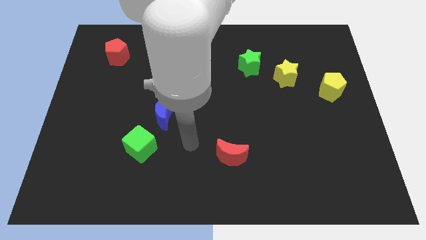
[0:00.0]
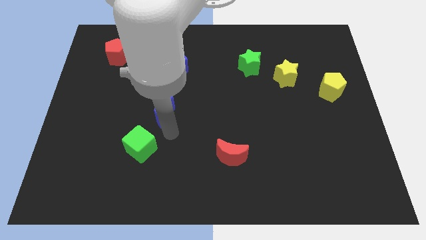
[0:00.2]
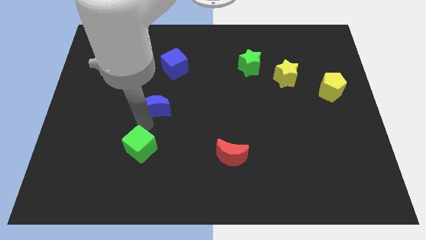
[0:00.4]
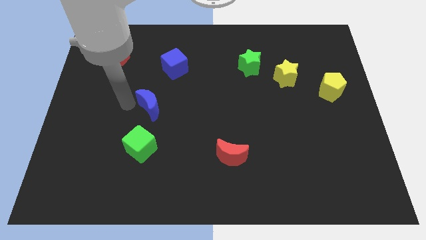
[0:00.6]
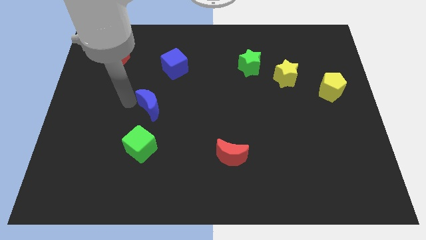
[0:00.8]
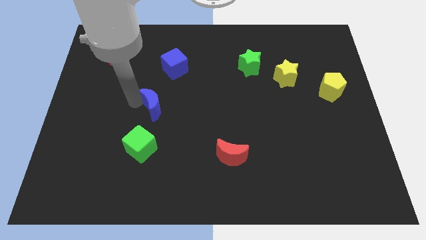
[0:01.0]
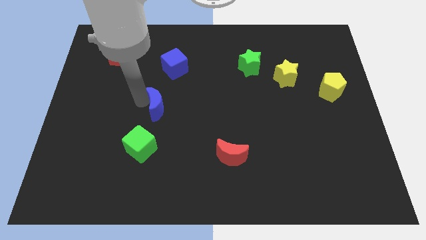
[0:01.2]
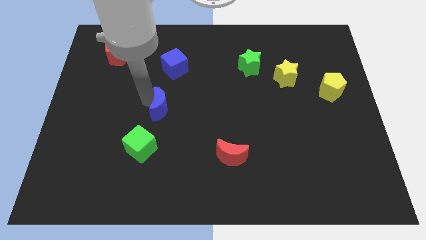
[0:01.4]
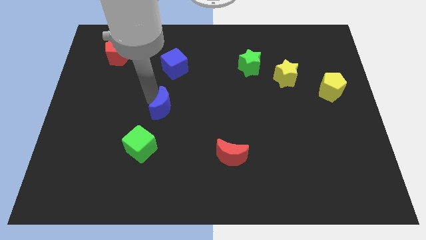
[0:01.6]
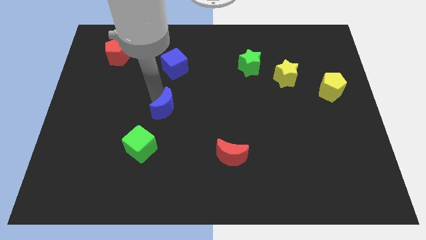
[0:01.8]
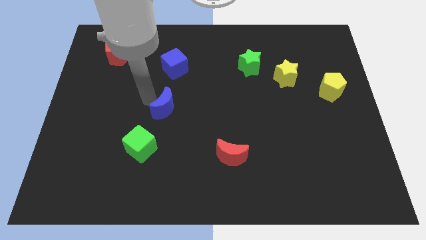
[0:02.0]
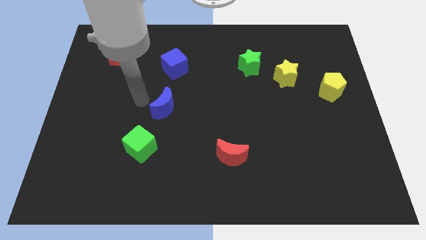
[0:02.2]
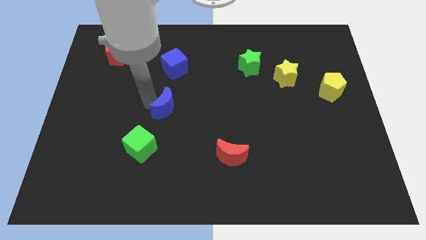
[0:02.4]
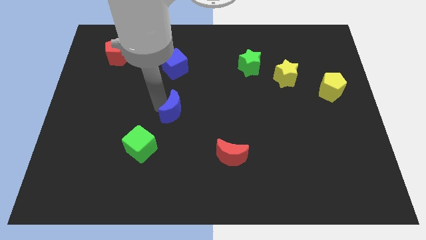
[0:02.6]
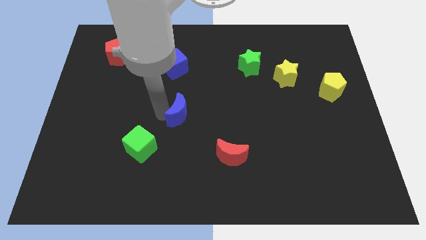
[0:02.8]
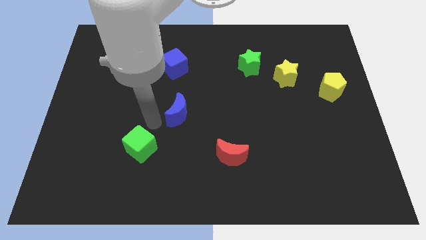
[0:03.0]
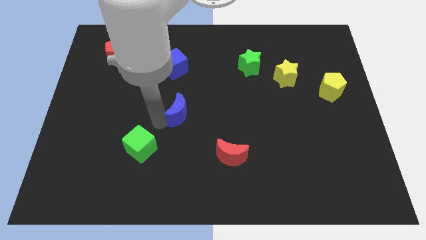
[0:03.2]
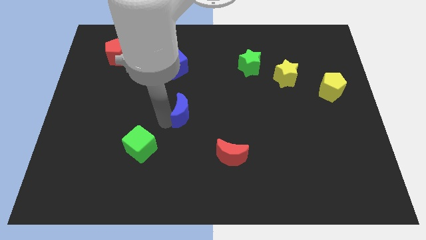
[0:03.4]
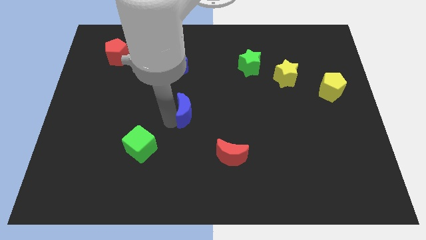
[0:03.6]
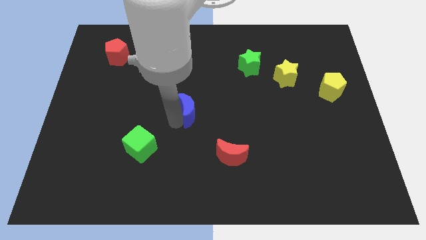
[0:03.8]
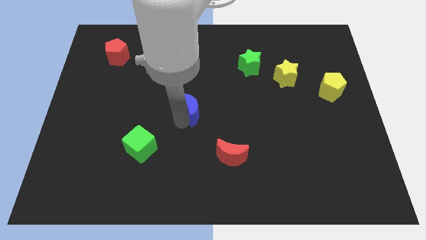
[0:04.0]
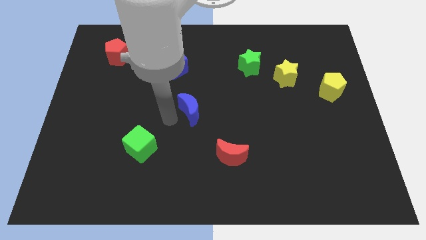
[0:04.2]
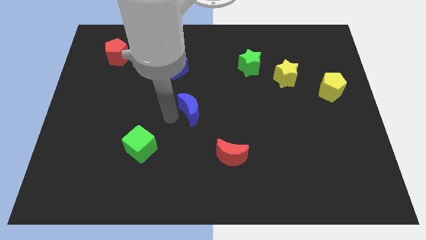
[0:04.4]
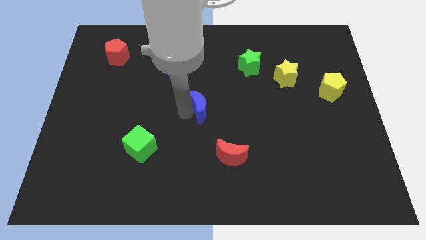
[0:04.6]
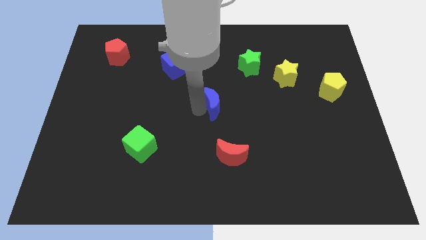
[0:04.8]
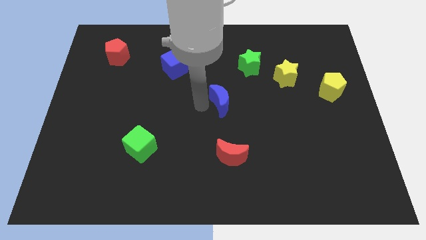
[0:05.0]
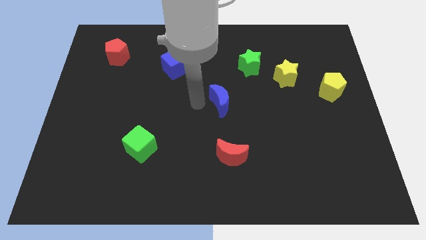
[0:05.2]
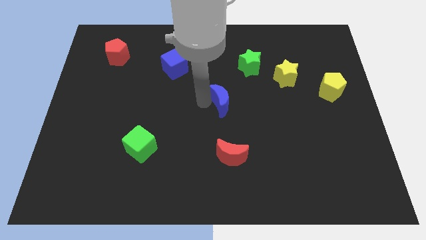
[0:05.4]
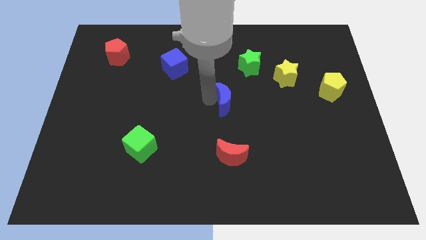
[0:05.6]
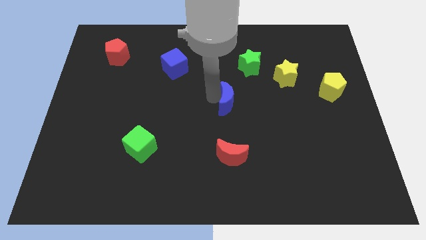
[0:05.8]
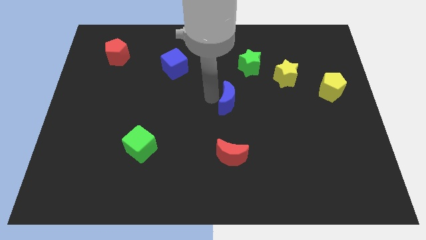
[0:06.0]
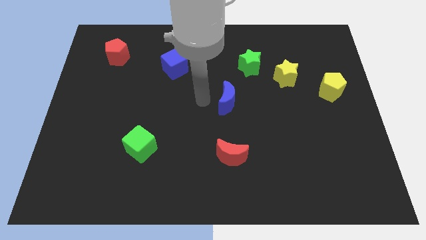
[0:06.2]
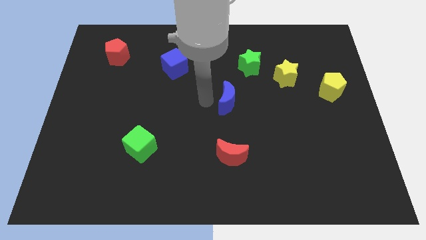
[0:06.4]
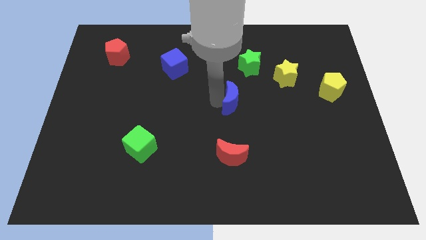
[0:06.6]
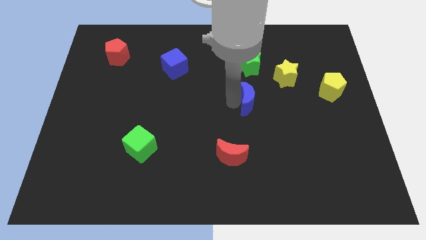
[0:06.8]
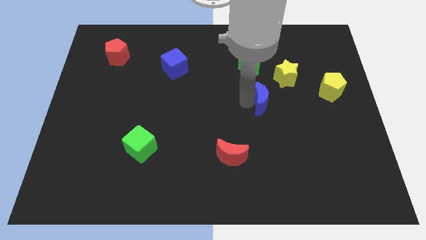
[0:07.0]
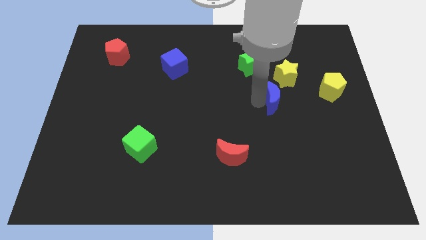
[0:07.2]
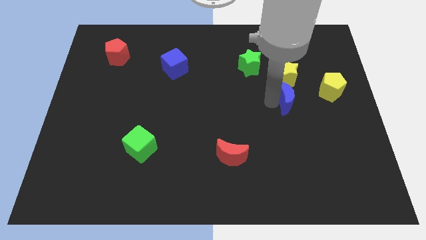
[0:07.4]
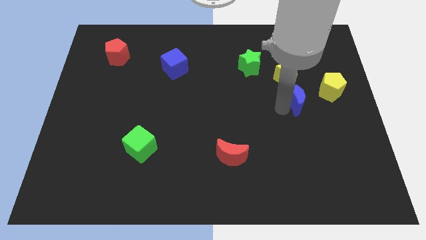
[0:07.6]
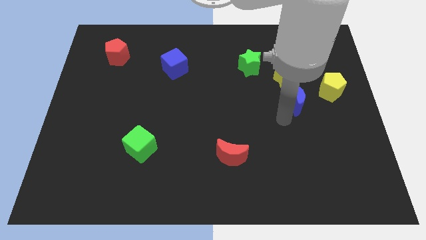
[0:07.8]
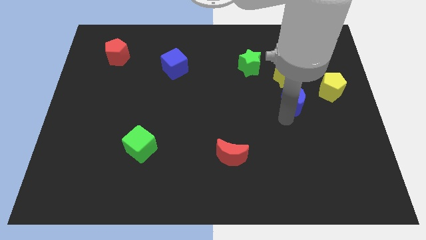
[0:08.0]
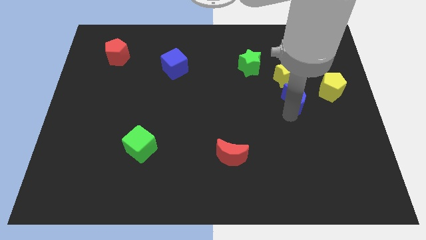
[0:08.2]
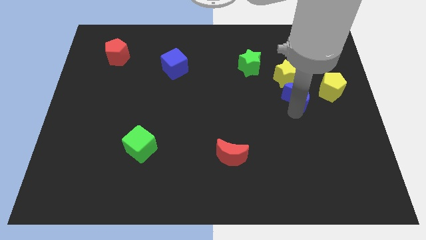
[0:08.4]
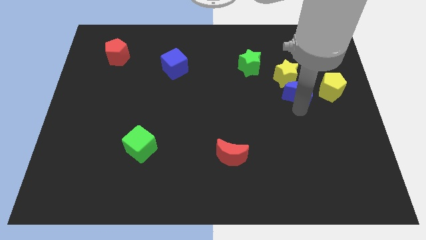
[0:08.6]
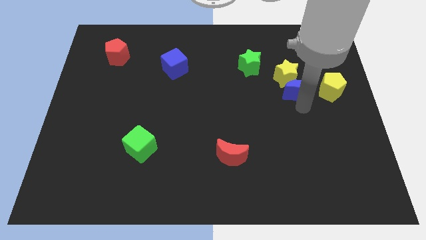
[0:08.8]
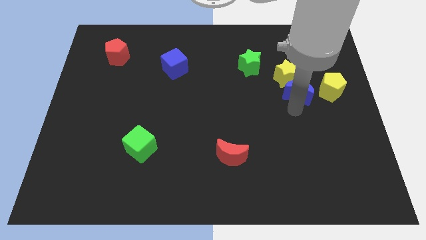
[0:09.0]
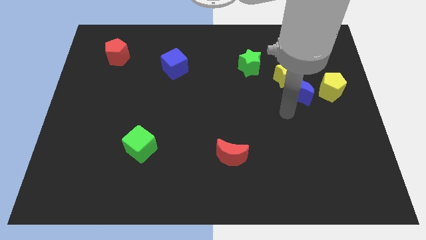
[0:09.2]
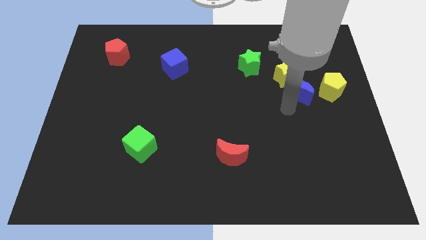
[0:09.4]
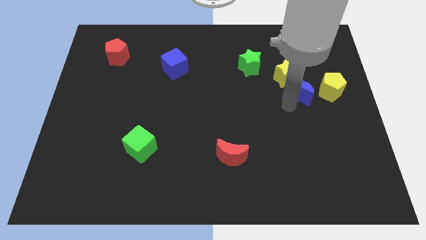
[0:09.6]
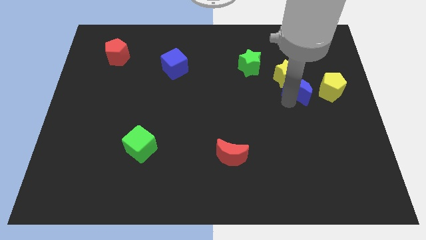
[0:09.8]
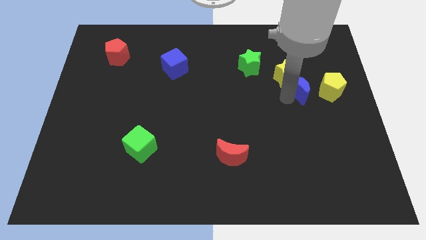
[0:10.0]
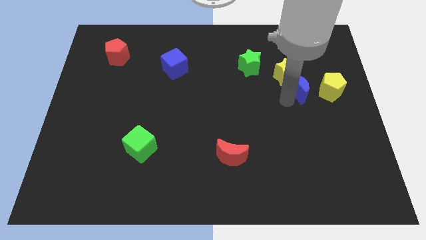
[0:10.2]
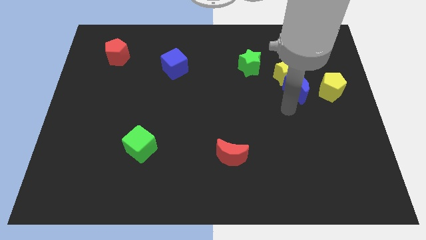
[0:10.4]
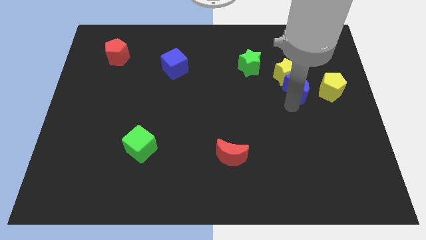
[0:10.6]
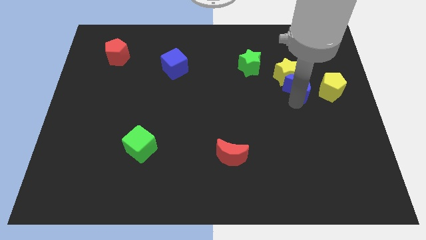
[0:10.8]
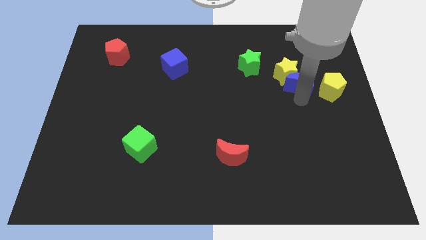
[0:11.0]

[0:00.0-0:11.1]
slide the blue moon diagonally up and to the left of the yellow pentagon

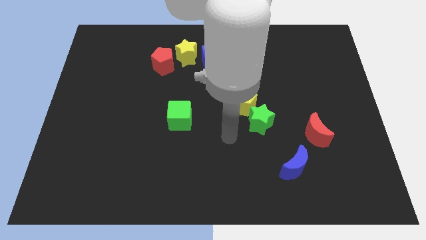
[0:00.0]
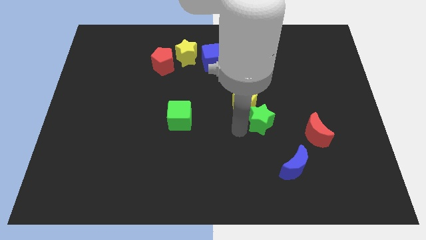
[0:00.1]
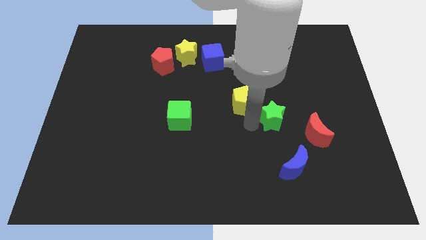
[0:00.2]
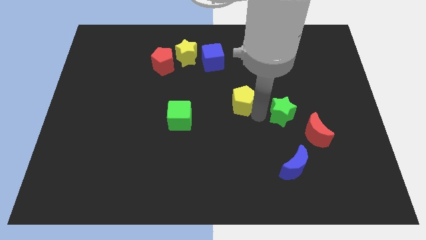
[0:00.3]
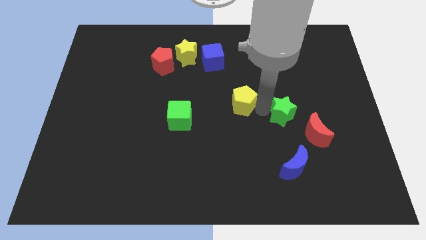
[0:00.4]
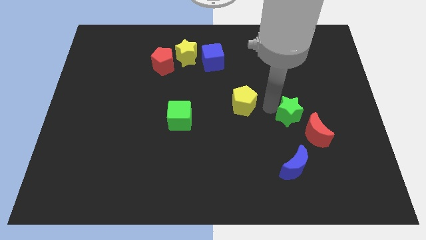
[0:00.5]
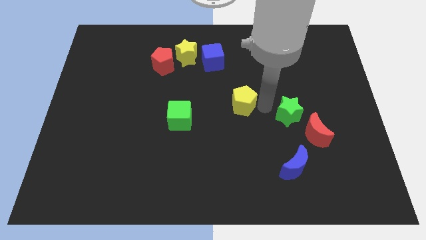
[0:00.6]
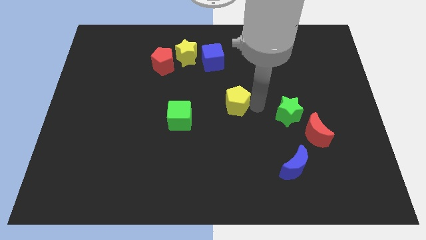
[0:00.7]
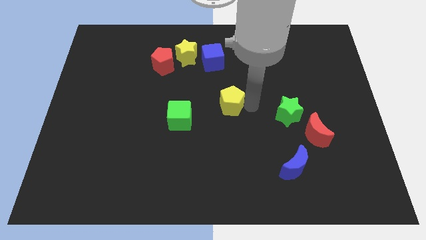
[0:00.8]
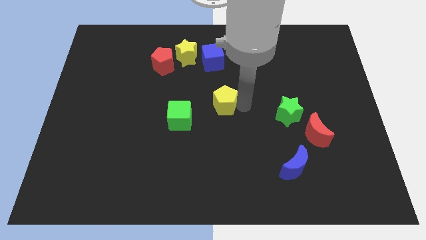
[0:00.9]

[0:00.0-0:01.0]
move the yellow pentagon to the top right of the green cube
